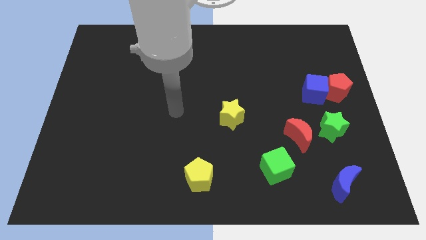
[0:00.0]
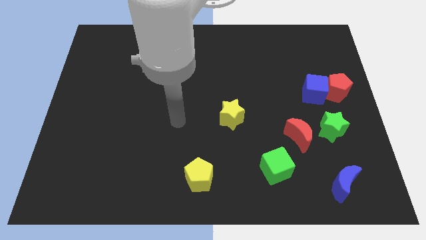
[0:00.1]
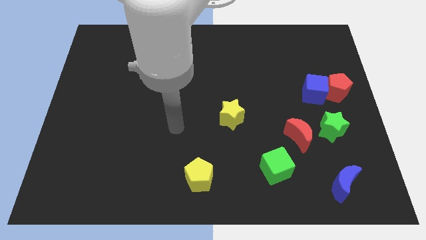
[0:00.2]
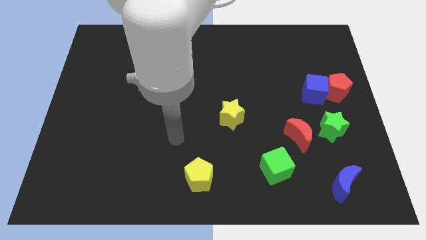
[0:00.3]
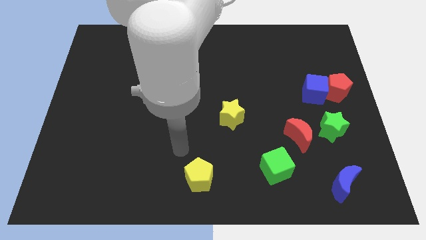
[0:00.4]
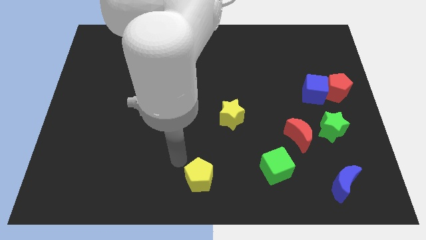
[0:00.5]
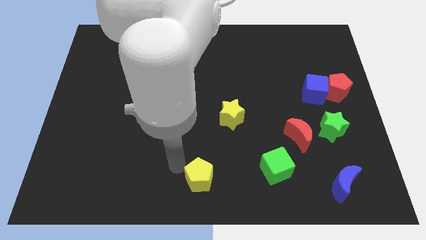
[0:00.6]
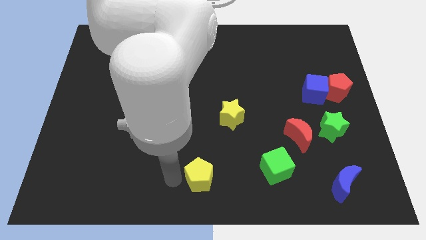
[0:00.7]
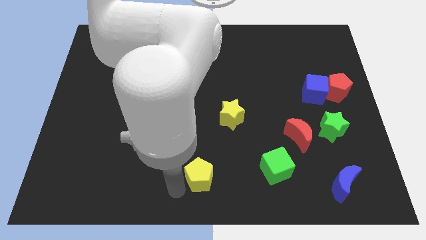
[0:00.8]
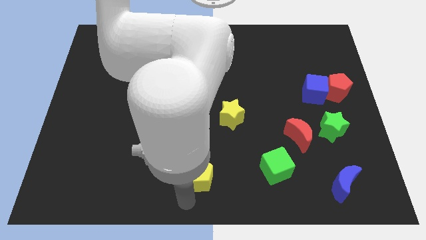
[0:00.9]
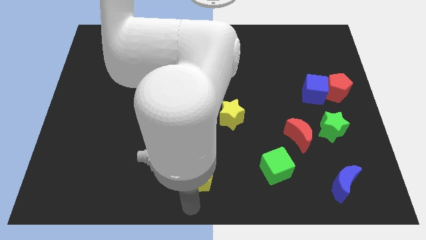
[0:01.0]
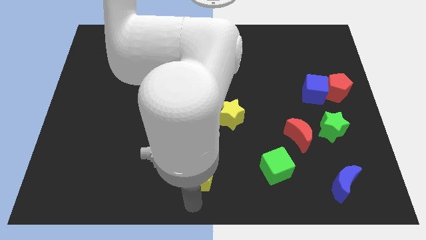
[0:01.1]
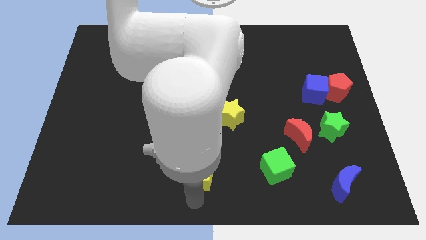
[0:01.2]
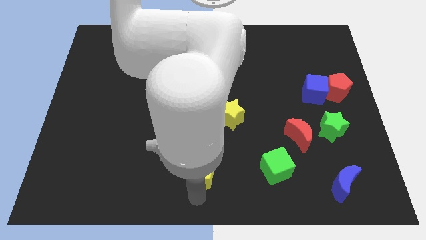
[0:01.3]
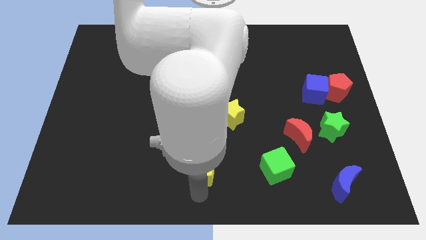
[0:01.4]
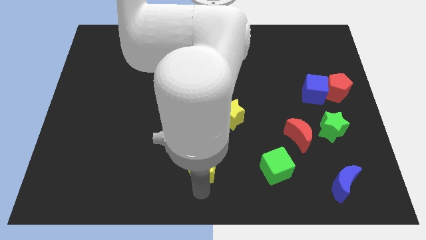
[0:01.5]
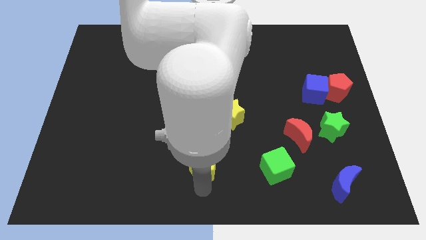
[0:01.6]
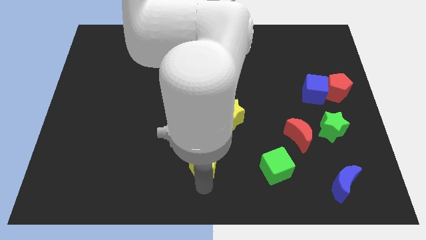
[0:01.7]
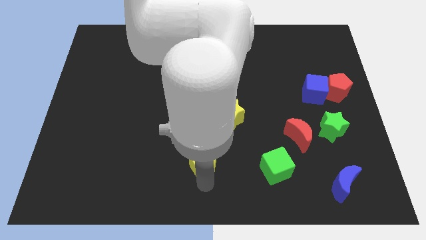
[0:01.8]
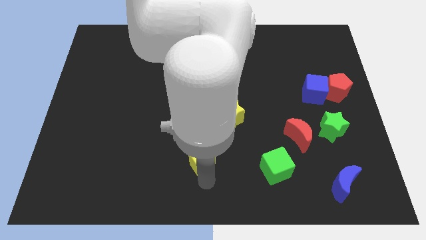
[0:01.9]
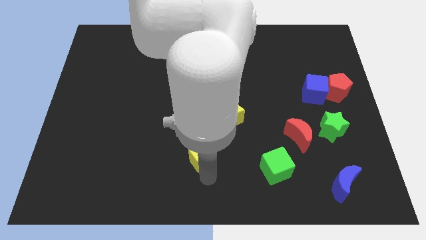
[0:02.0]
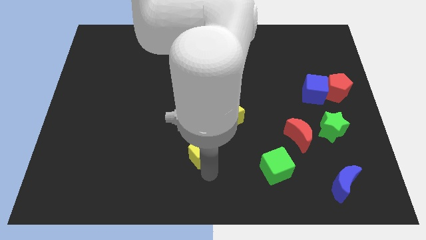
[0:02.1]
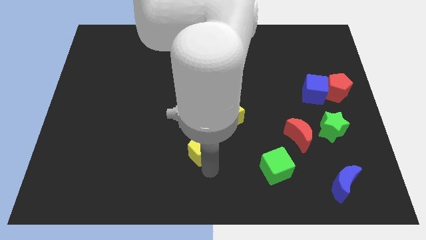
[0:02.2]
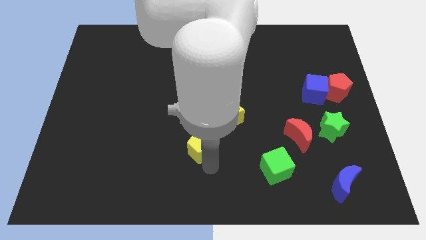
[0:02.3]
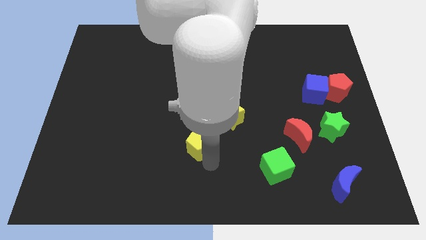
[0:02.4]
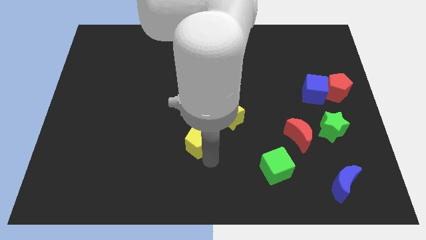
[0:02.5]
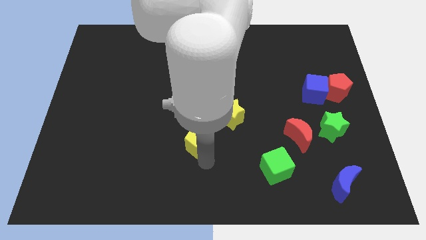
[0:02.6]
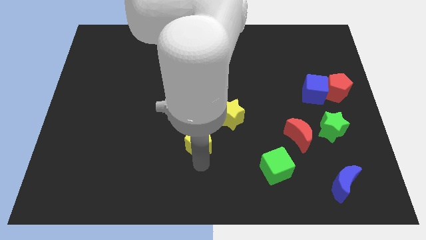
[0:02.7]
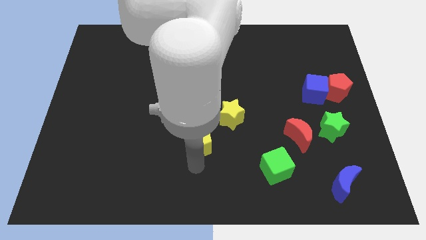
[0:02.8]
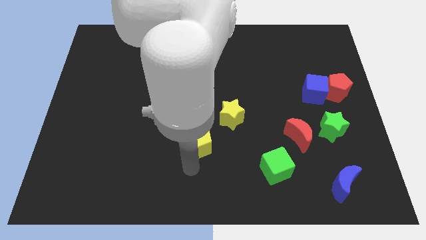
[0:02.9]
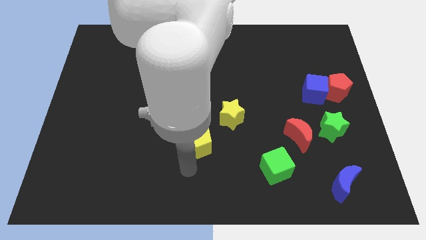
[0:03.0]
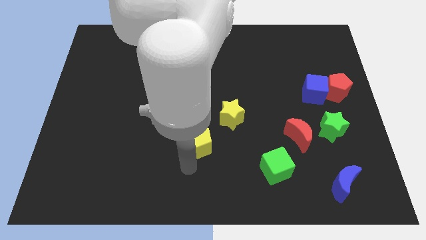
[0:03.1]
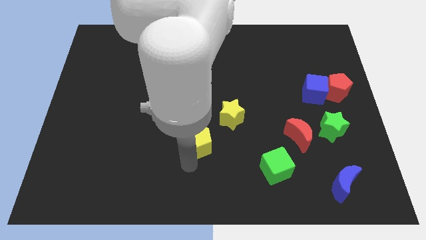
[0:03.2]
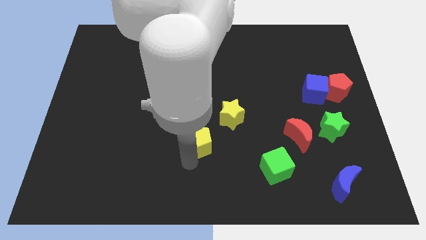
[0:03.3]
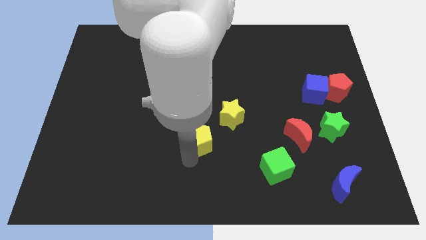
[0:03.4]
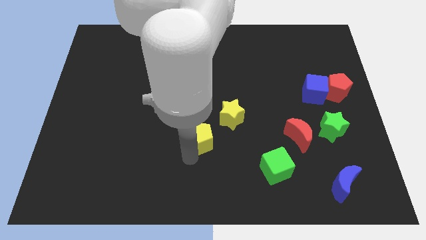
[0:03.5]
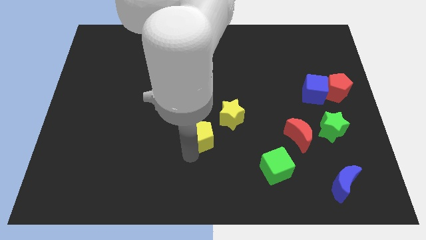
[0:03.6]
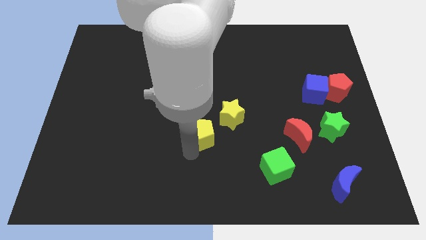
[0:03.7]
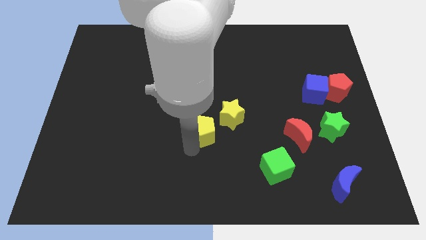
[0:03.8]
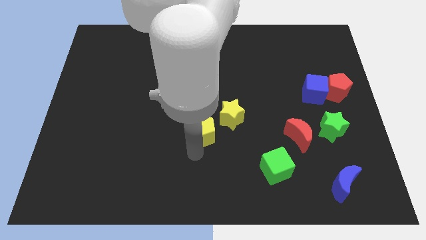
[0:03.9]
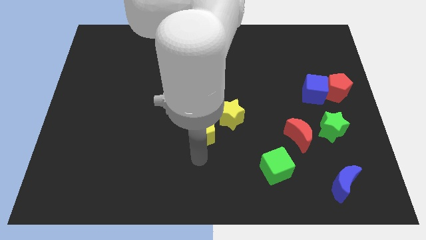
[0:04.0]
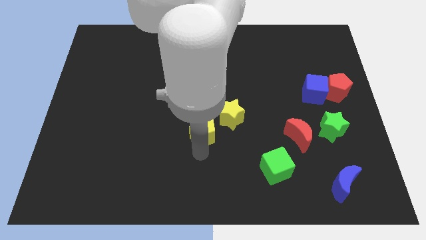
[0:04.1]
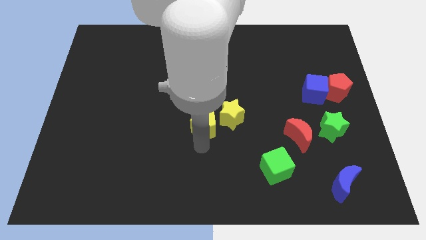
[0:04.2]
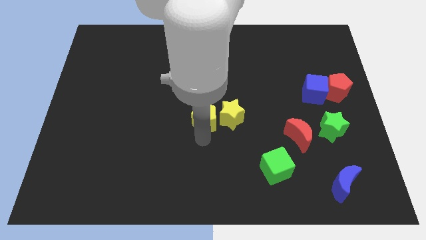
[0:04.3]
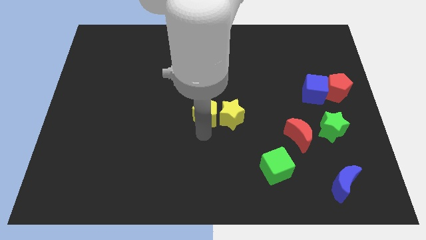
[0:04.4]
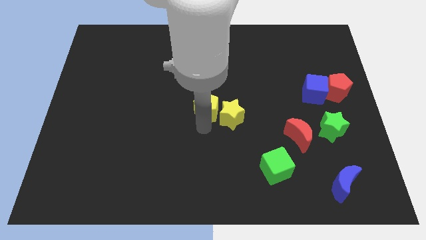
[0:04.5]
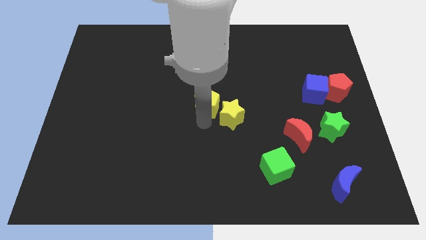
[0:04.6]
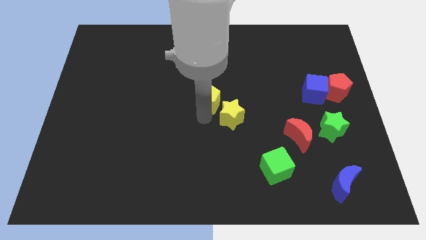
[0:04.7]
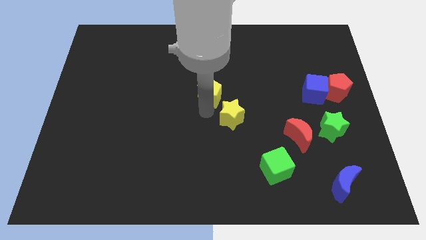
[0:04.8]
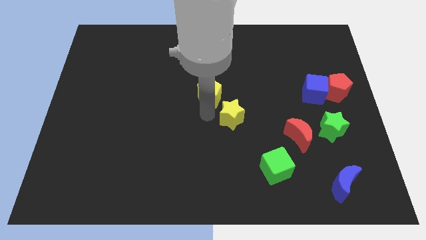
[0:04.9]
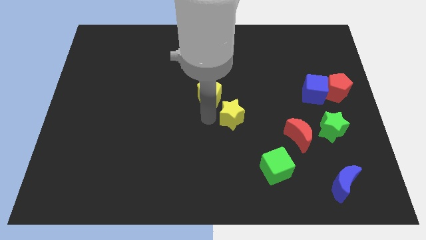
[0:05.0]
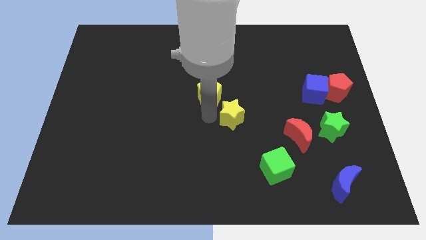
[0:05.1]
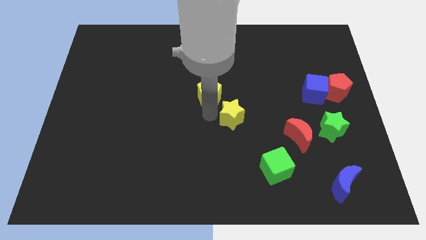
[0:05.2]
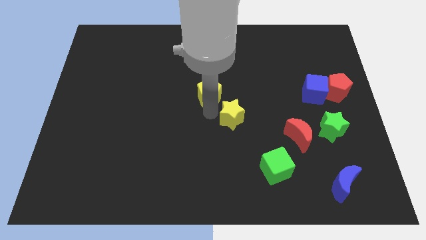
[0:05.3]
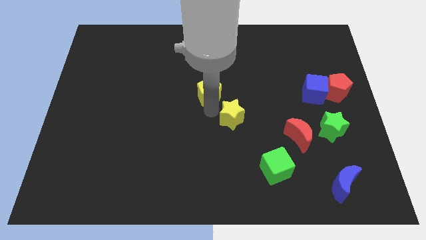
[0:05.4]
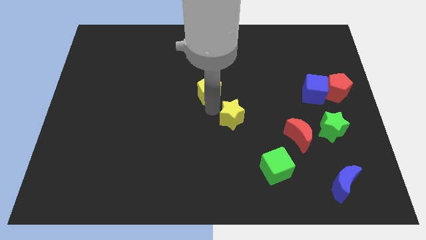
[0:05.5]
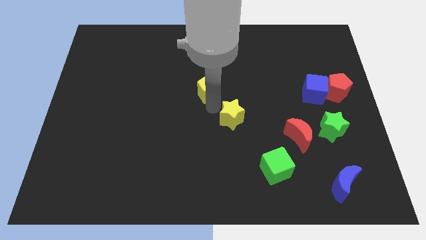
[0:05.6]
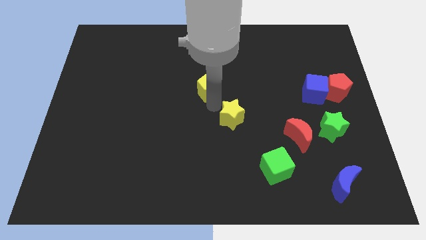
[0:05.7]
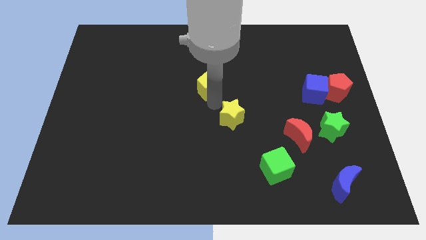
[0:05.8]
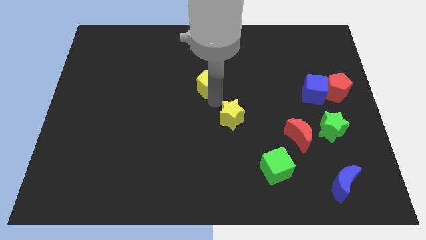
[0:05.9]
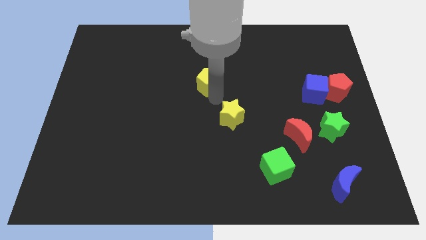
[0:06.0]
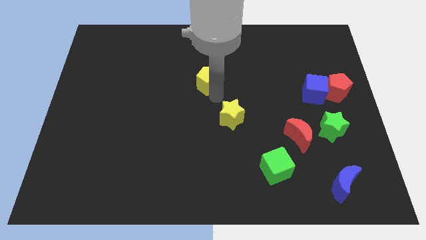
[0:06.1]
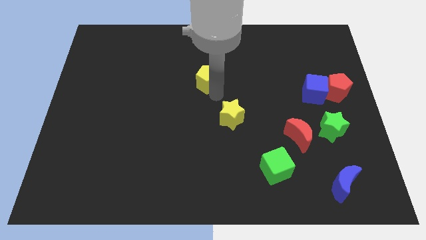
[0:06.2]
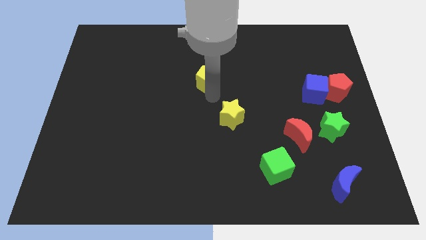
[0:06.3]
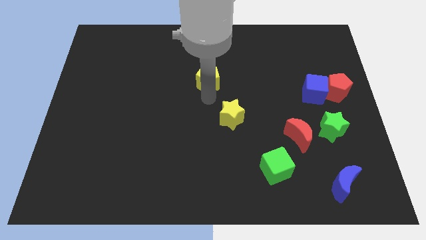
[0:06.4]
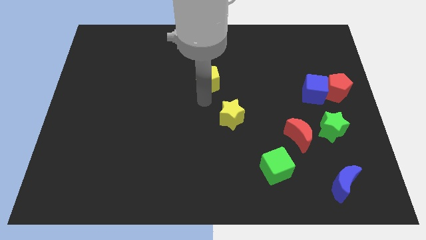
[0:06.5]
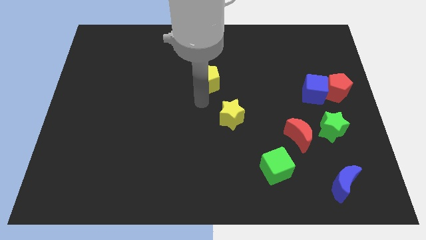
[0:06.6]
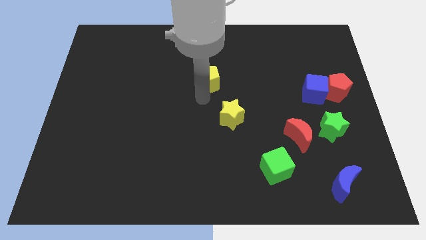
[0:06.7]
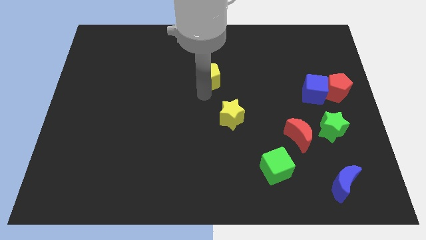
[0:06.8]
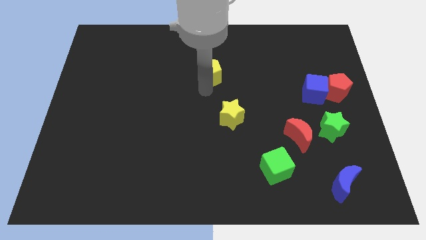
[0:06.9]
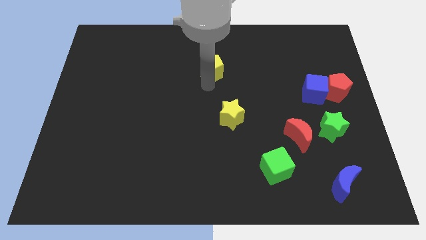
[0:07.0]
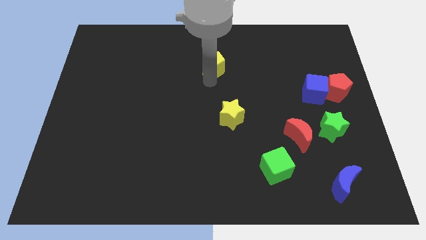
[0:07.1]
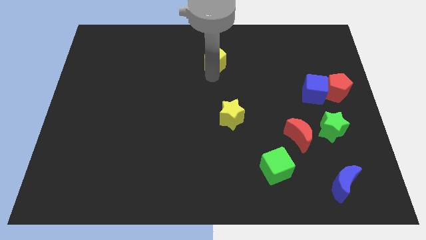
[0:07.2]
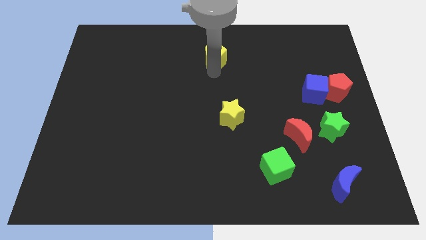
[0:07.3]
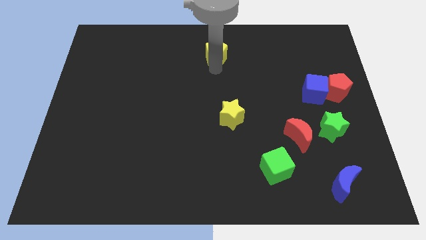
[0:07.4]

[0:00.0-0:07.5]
push the yellow pentagon to the top
